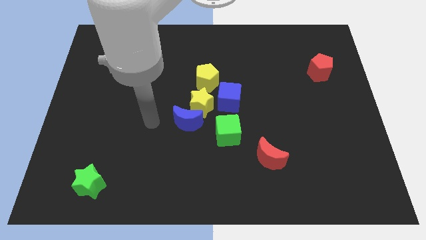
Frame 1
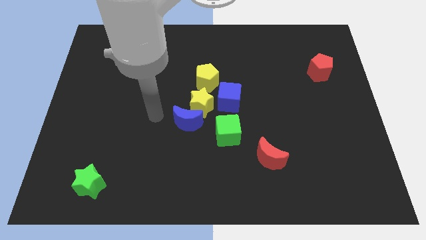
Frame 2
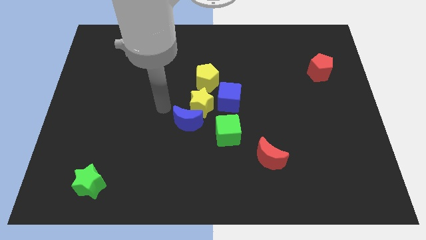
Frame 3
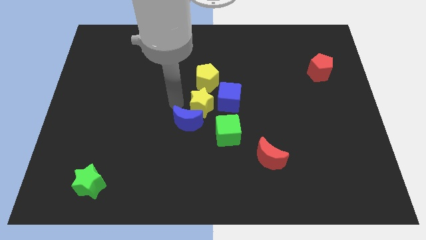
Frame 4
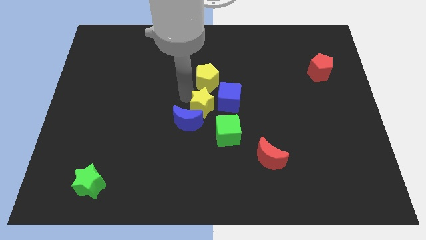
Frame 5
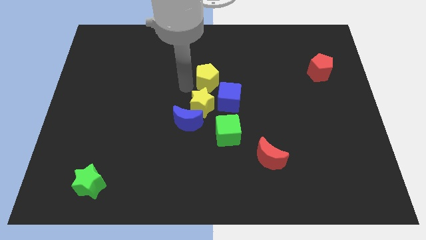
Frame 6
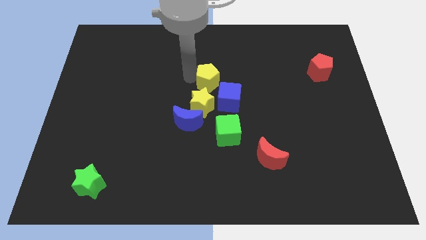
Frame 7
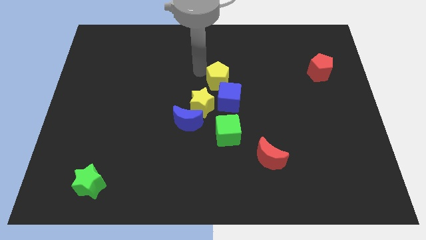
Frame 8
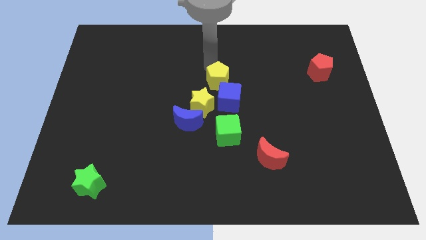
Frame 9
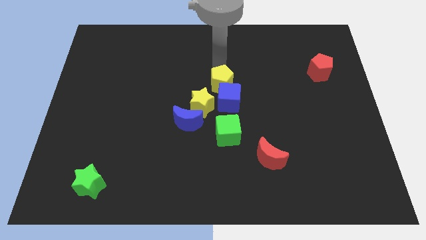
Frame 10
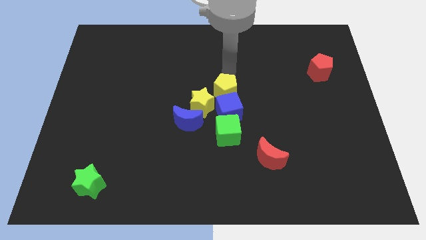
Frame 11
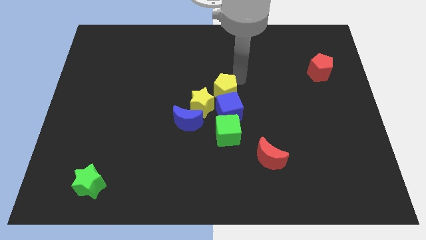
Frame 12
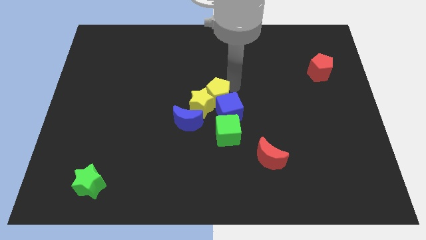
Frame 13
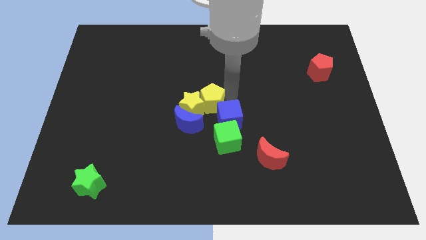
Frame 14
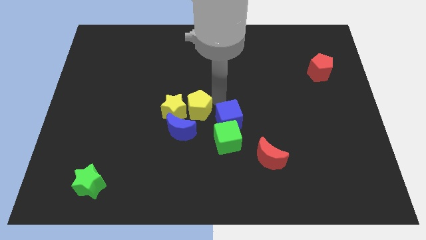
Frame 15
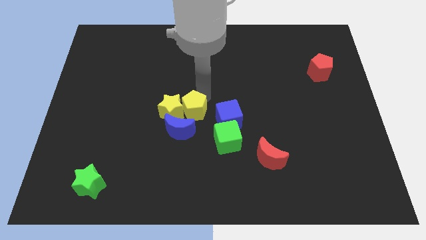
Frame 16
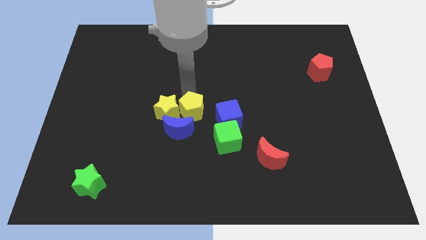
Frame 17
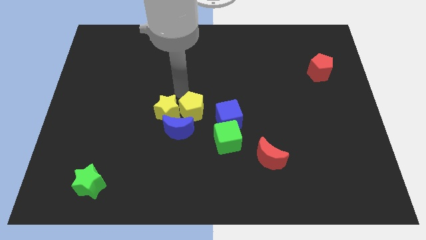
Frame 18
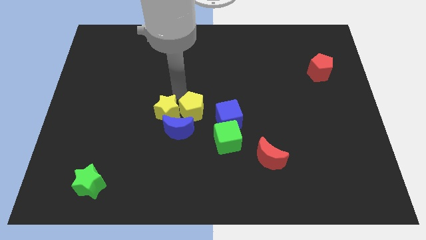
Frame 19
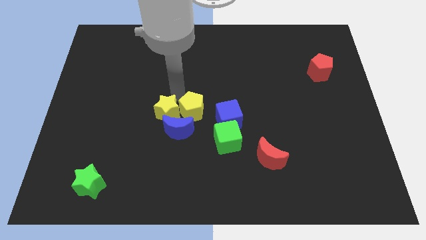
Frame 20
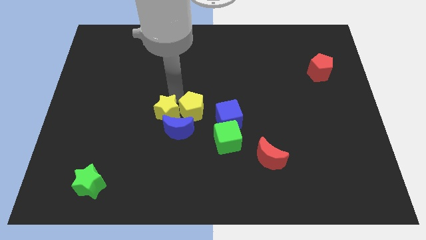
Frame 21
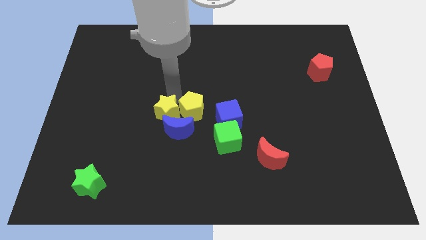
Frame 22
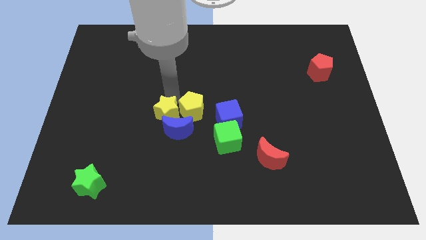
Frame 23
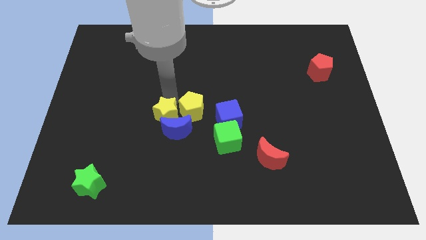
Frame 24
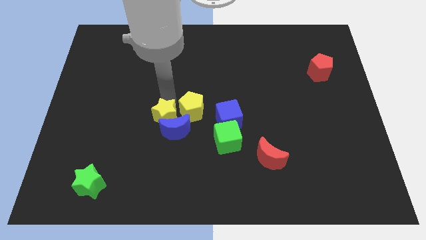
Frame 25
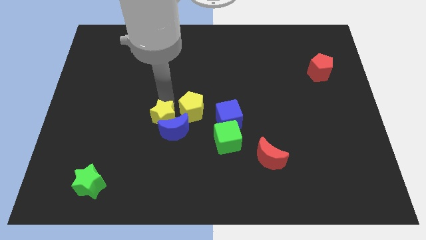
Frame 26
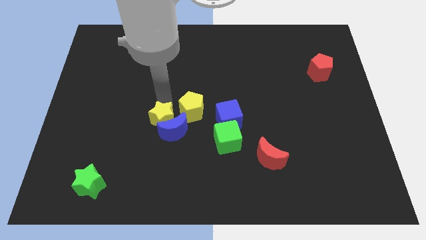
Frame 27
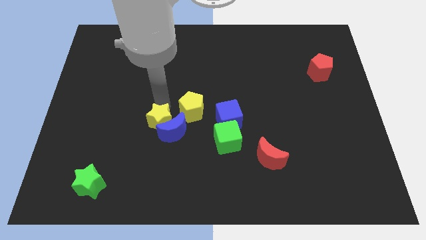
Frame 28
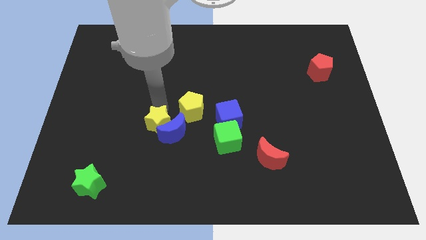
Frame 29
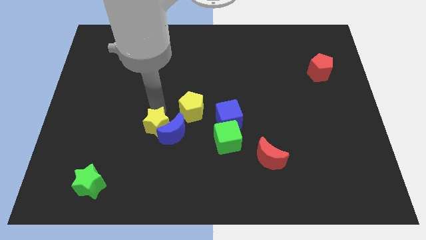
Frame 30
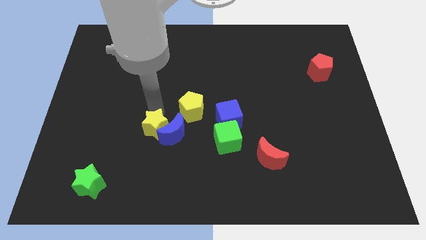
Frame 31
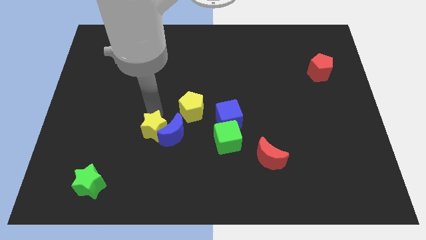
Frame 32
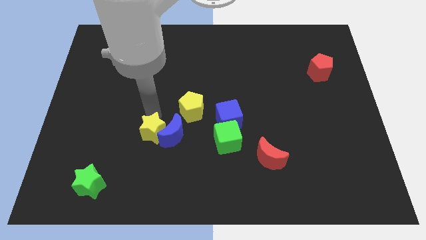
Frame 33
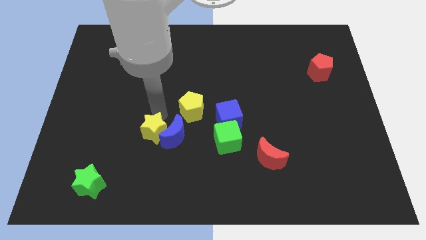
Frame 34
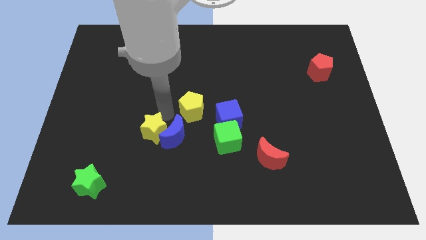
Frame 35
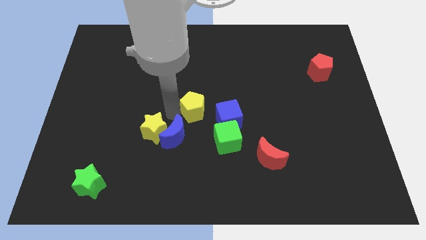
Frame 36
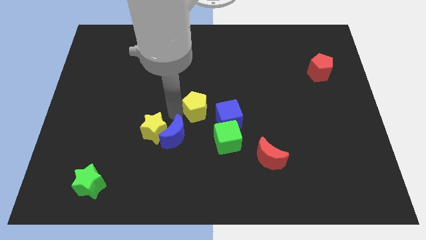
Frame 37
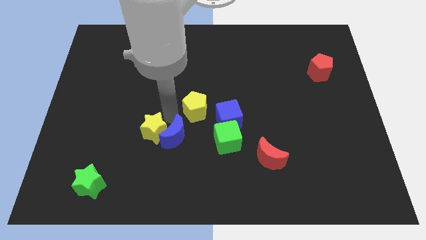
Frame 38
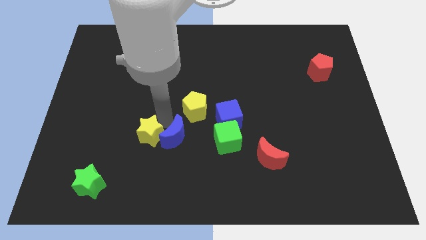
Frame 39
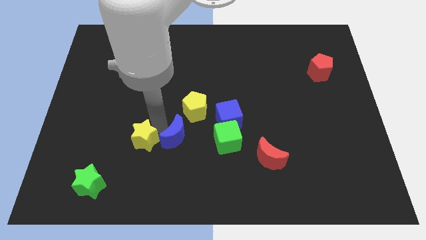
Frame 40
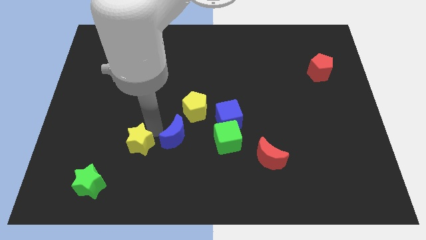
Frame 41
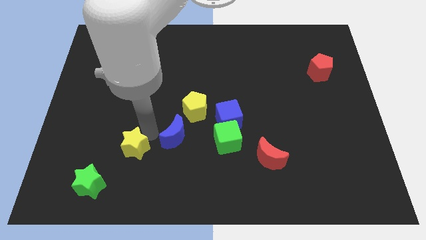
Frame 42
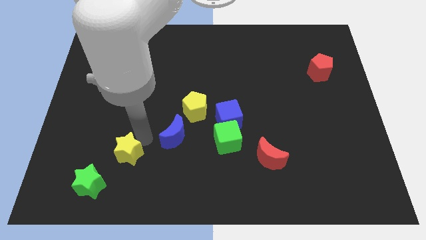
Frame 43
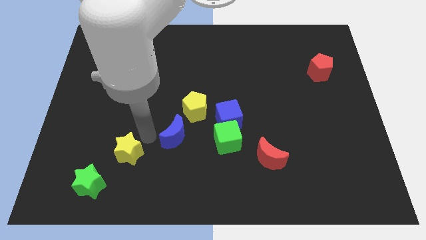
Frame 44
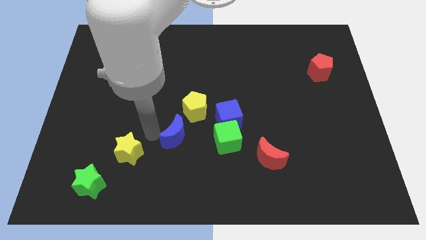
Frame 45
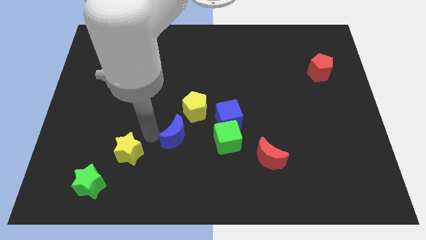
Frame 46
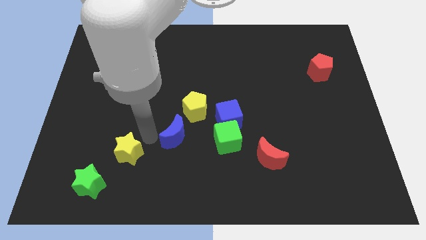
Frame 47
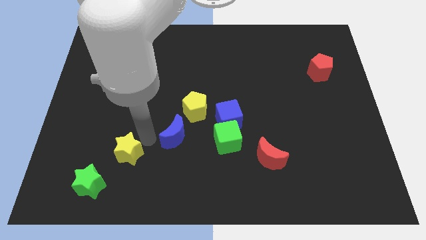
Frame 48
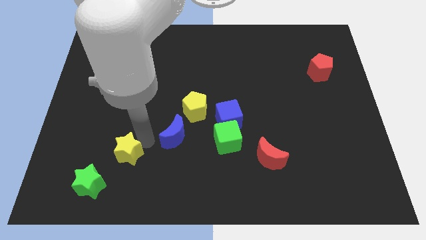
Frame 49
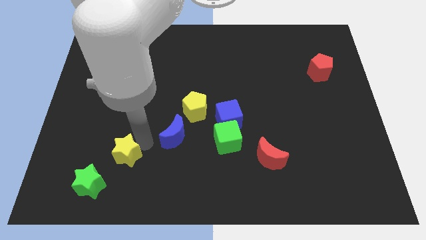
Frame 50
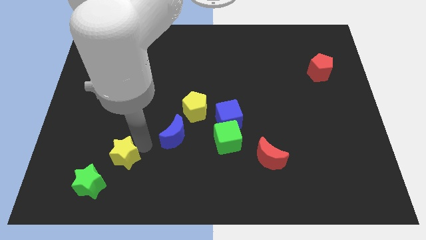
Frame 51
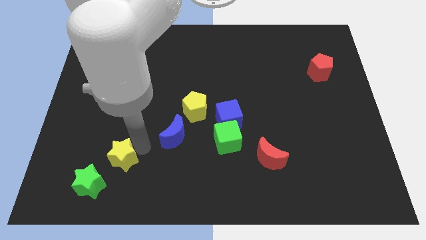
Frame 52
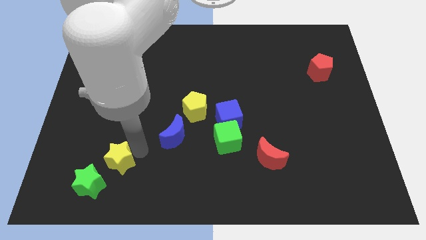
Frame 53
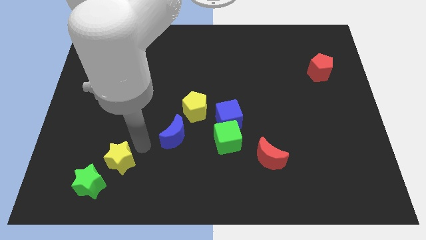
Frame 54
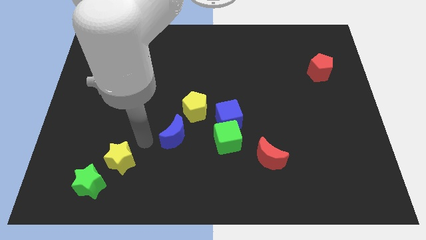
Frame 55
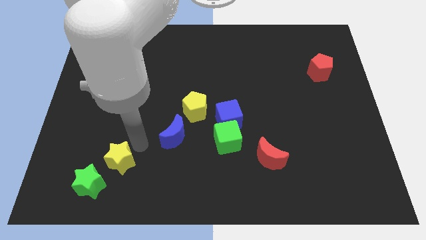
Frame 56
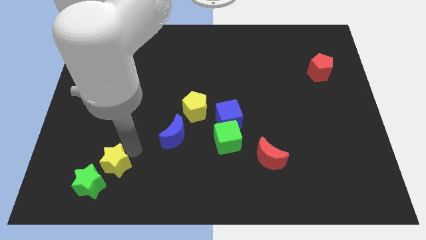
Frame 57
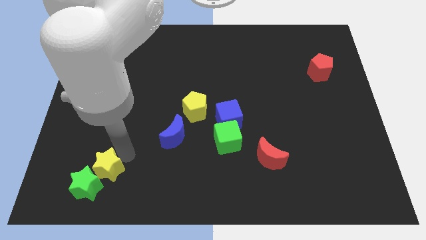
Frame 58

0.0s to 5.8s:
put the yellow star next to the green star

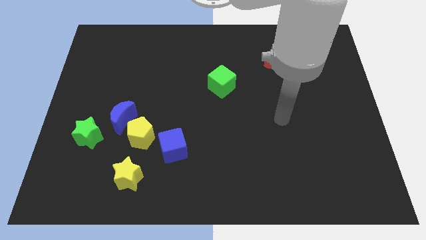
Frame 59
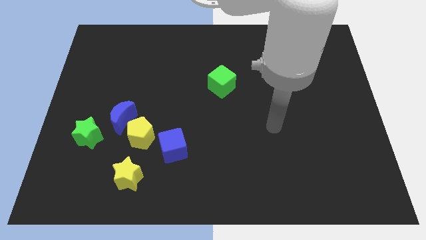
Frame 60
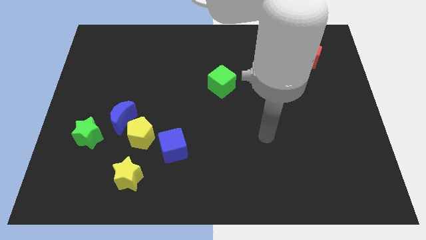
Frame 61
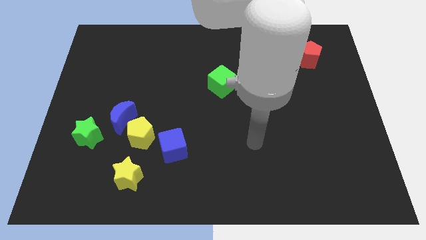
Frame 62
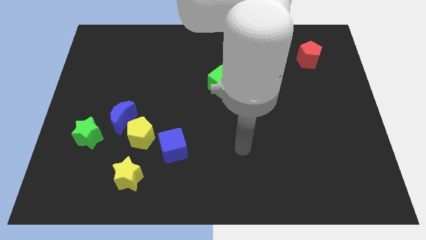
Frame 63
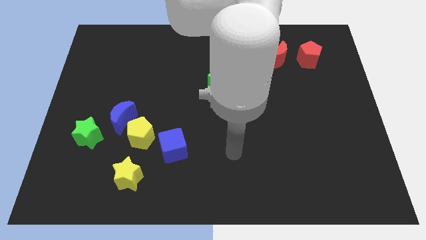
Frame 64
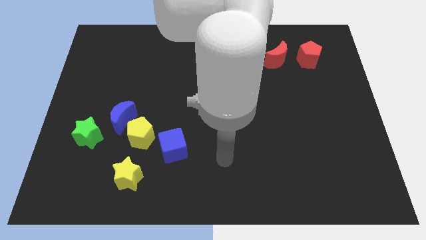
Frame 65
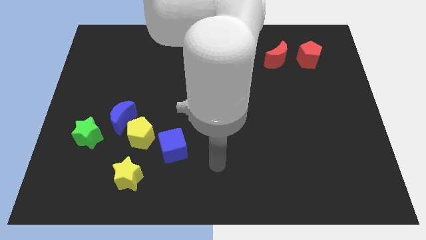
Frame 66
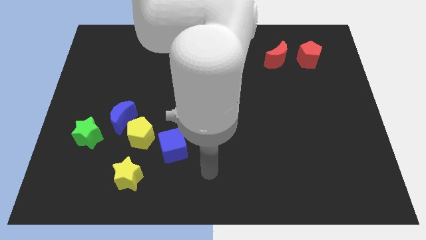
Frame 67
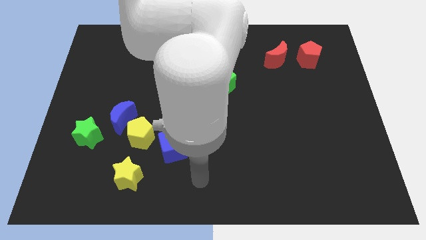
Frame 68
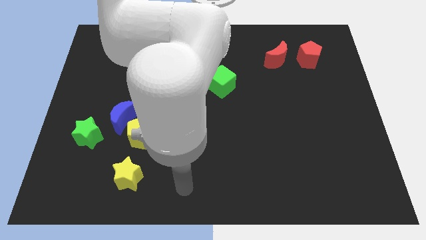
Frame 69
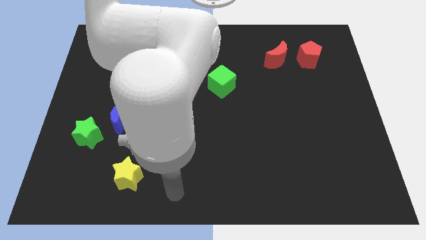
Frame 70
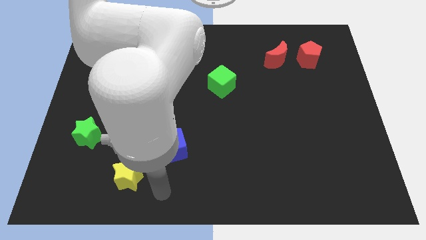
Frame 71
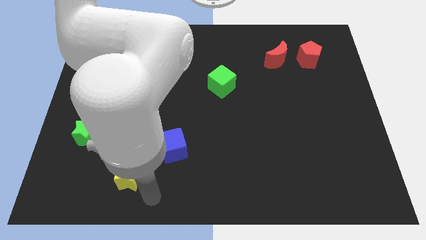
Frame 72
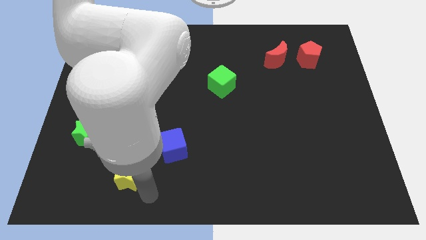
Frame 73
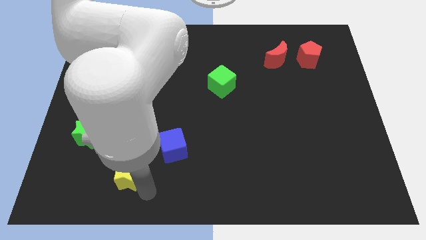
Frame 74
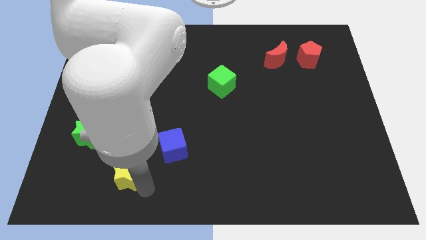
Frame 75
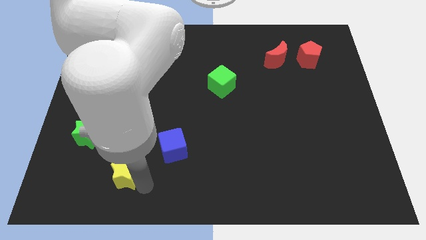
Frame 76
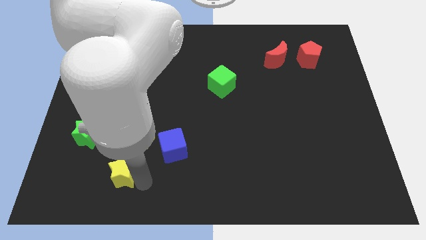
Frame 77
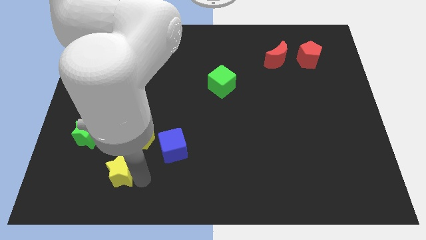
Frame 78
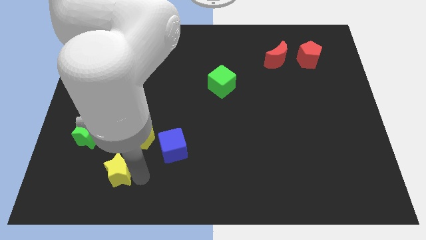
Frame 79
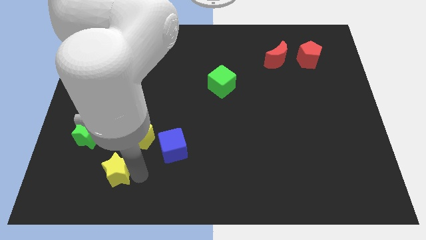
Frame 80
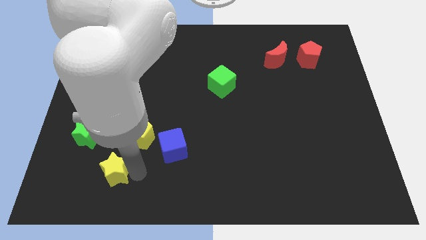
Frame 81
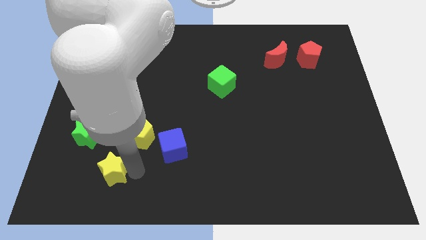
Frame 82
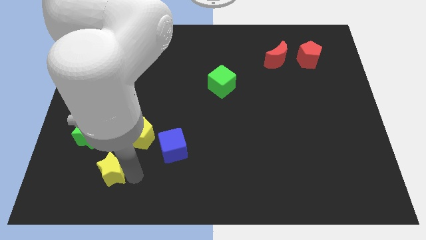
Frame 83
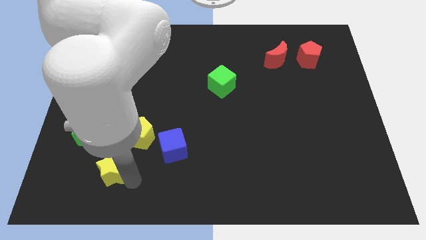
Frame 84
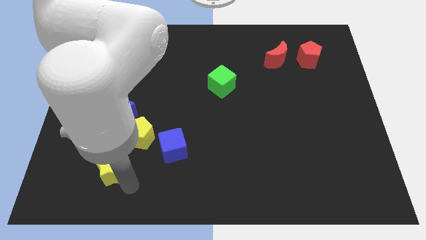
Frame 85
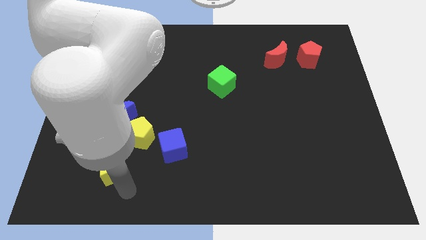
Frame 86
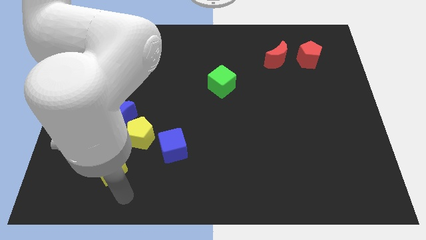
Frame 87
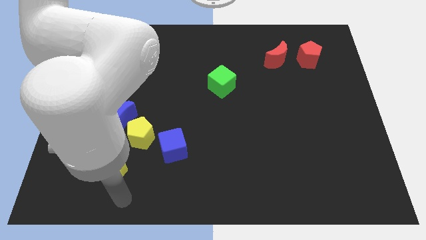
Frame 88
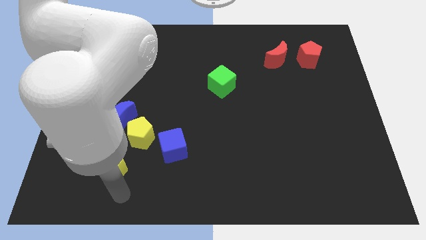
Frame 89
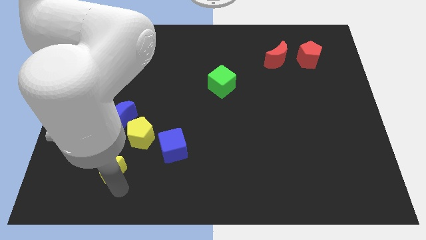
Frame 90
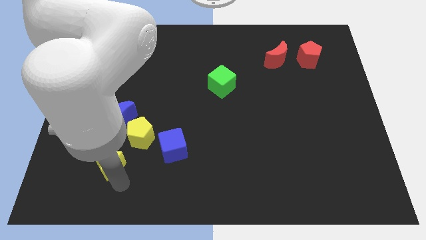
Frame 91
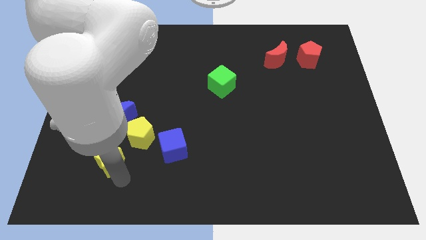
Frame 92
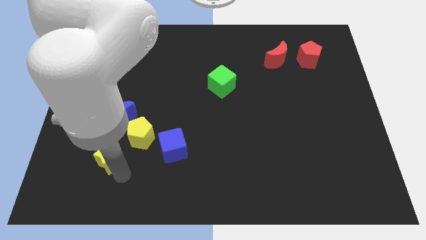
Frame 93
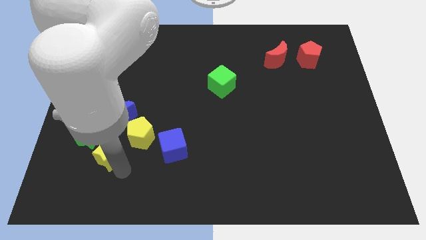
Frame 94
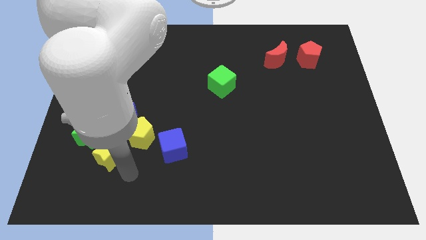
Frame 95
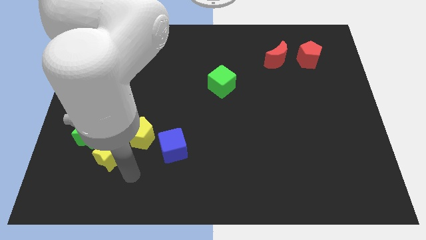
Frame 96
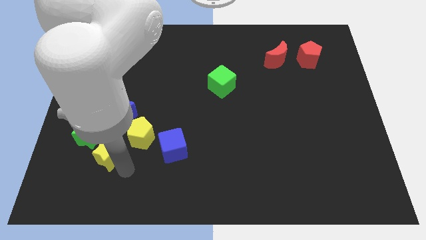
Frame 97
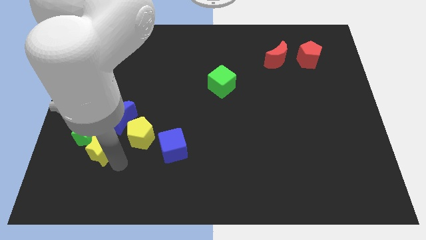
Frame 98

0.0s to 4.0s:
slide the yellow star next to the green star
